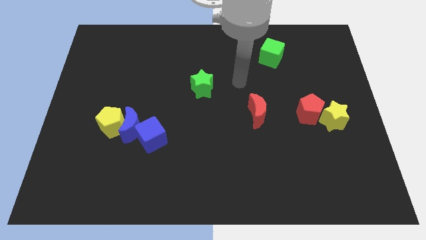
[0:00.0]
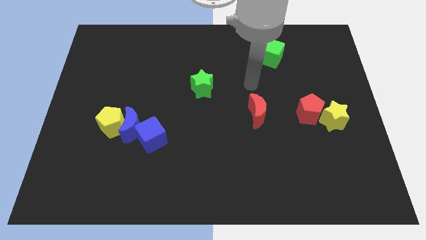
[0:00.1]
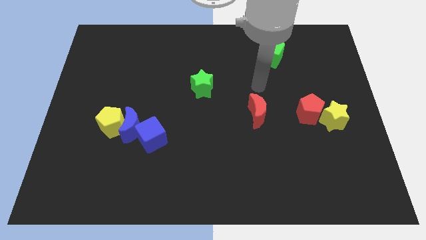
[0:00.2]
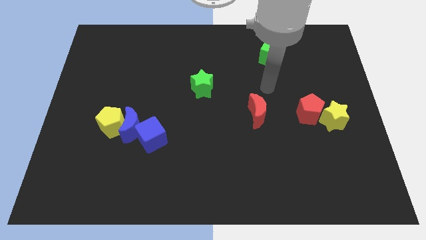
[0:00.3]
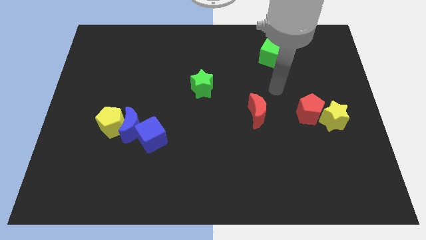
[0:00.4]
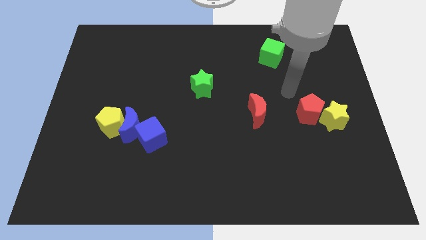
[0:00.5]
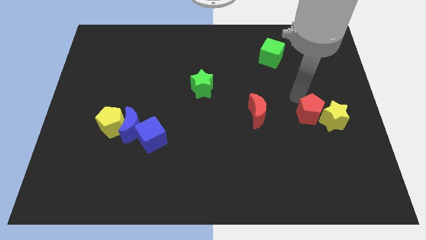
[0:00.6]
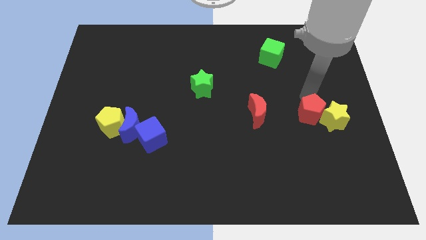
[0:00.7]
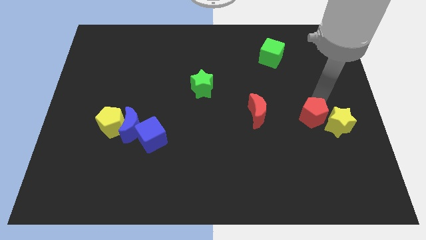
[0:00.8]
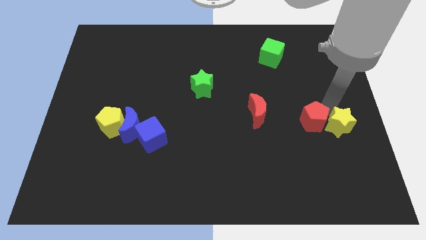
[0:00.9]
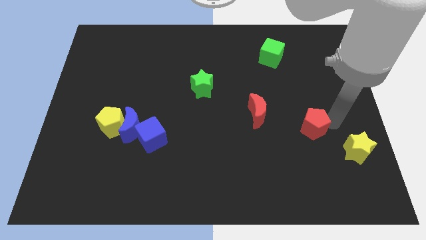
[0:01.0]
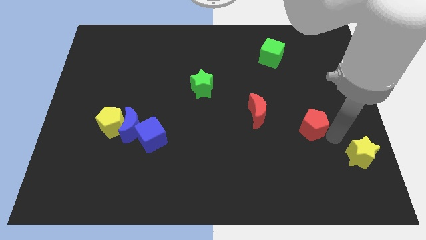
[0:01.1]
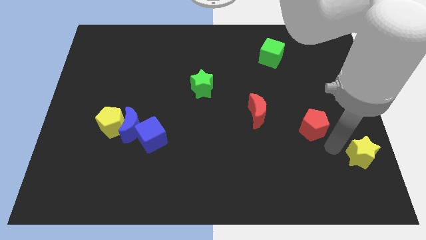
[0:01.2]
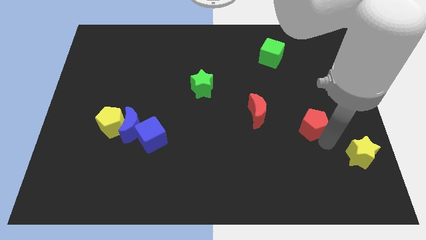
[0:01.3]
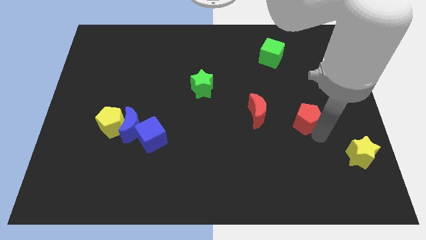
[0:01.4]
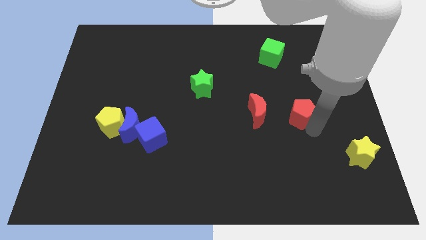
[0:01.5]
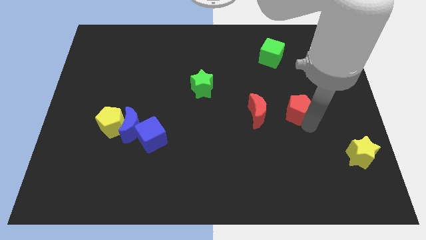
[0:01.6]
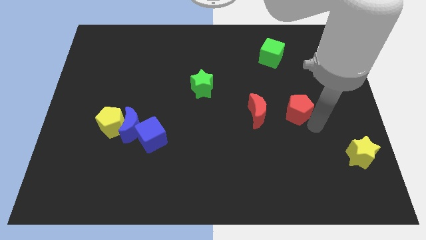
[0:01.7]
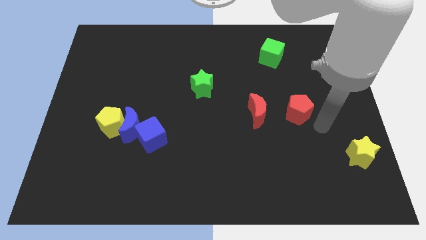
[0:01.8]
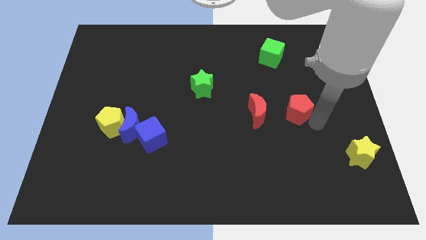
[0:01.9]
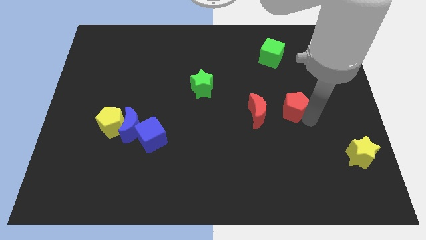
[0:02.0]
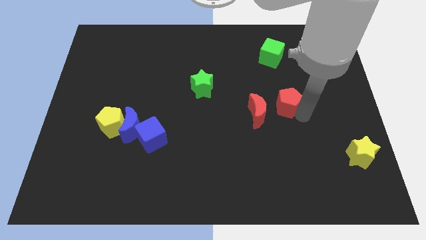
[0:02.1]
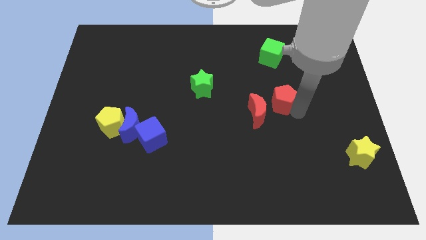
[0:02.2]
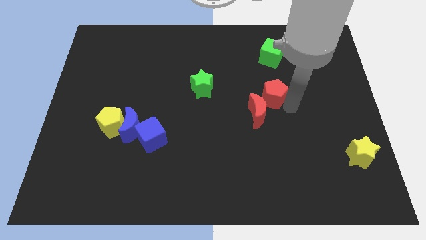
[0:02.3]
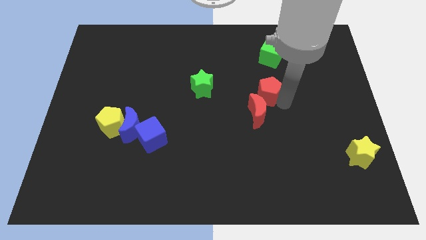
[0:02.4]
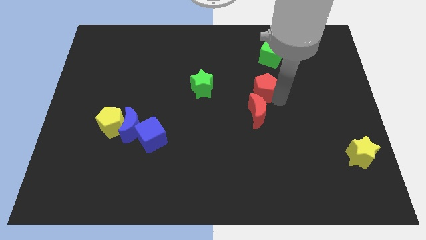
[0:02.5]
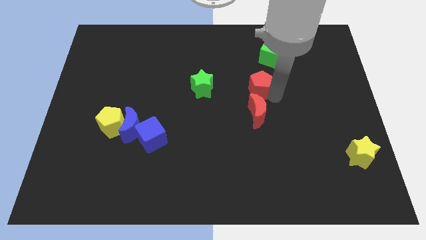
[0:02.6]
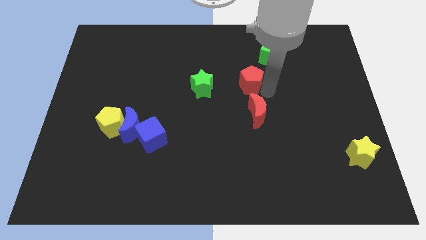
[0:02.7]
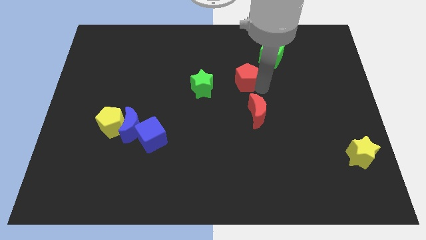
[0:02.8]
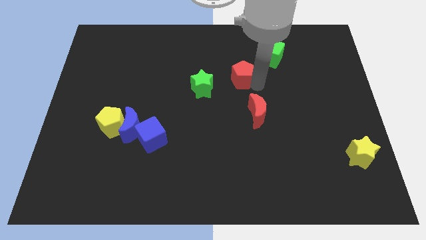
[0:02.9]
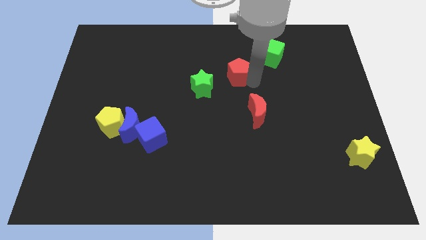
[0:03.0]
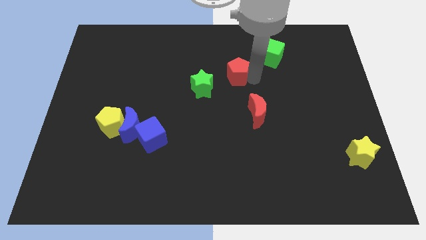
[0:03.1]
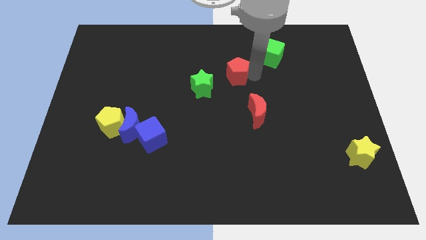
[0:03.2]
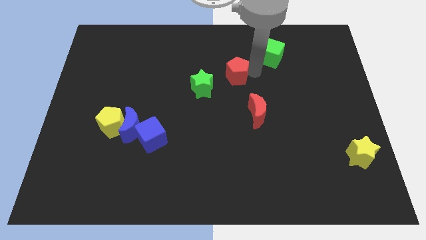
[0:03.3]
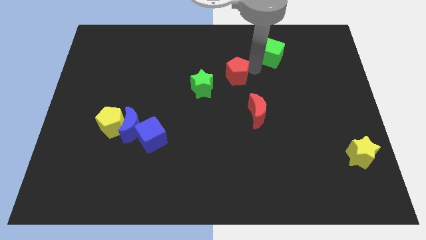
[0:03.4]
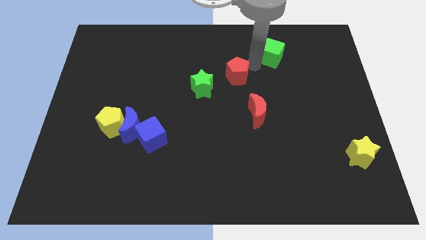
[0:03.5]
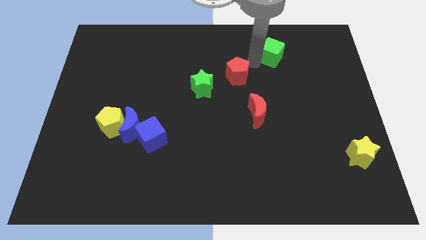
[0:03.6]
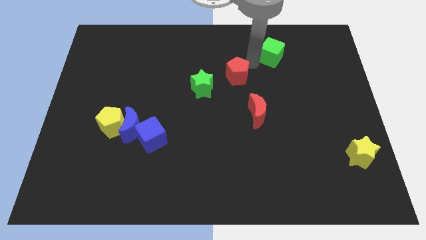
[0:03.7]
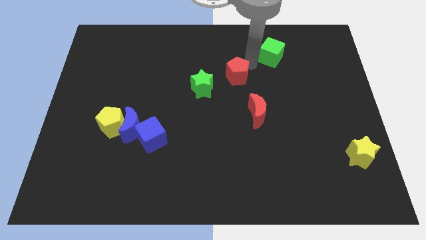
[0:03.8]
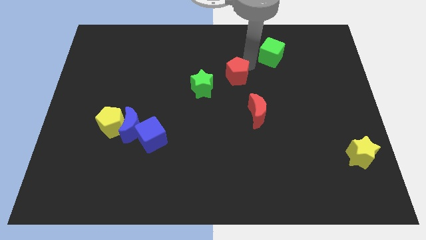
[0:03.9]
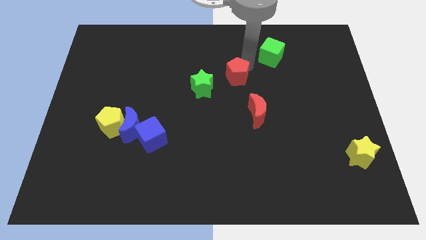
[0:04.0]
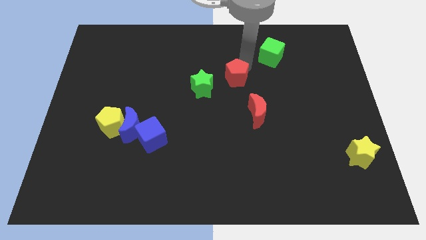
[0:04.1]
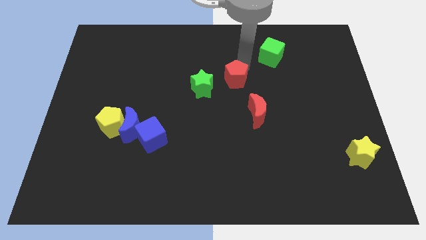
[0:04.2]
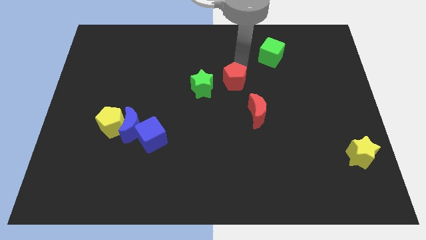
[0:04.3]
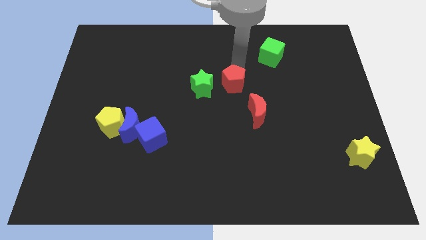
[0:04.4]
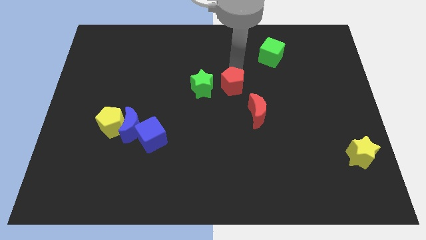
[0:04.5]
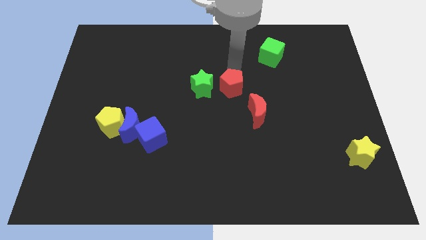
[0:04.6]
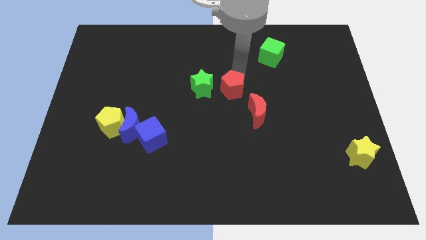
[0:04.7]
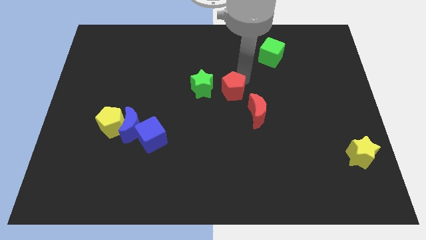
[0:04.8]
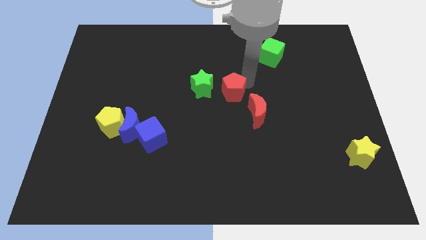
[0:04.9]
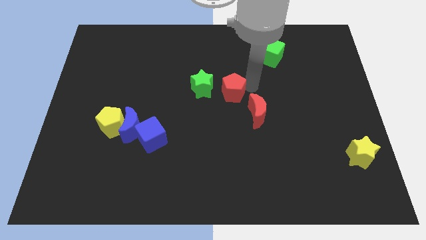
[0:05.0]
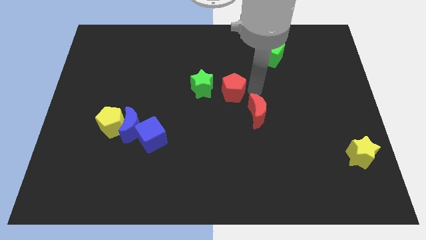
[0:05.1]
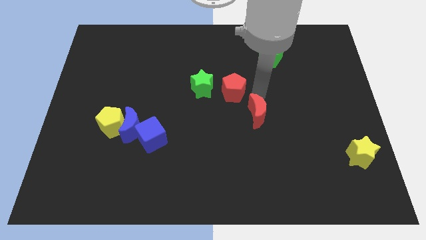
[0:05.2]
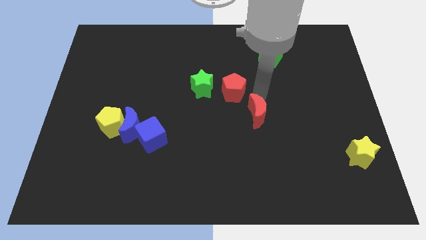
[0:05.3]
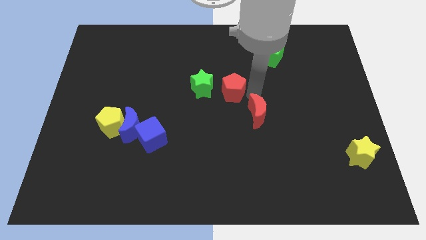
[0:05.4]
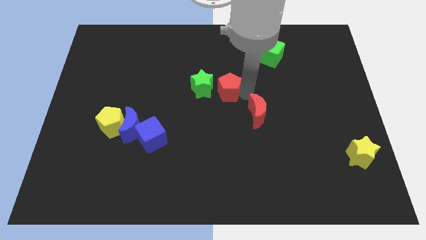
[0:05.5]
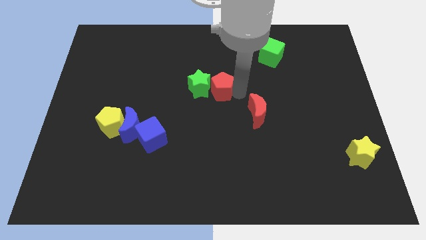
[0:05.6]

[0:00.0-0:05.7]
move the red pentagon next to the green star

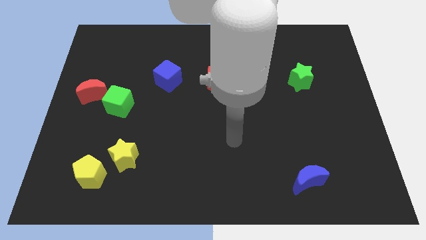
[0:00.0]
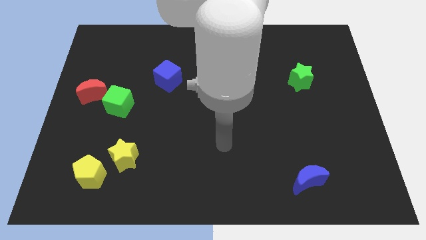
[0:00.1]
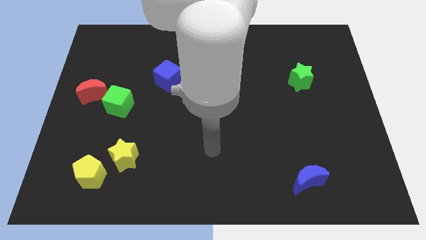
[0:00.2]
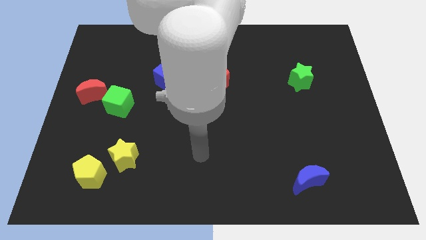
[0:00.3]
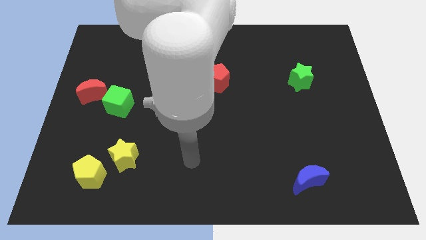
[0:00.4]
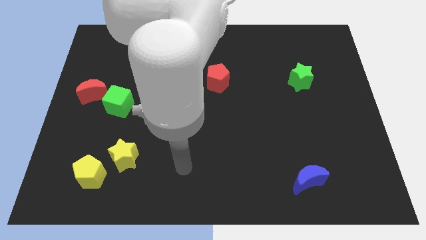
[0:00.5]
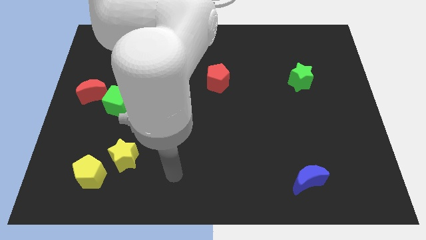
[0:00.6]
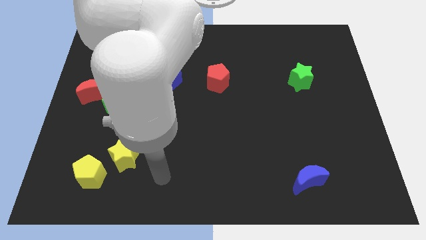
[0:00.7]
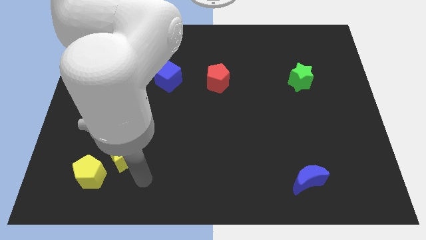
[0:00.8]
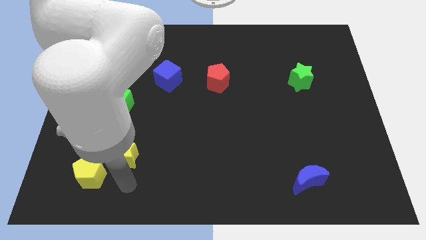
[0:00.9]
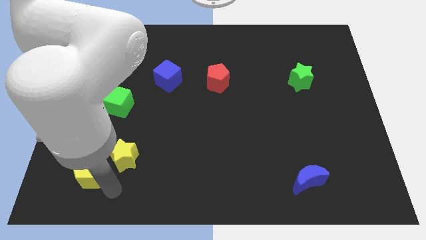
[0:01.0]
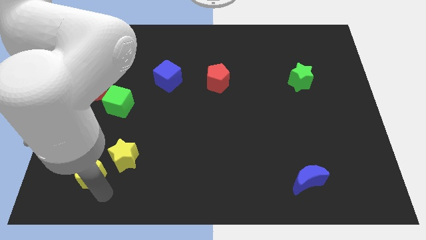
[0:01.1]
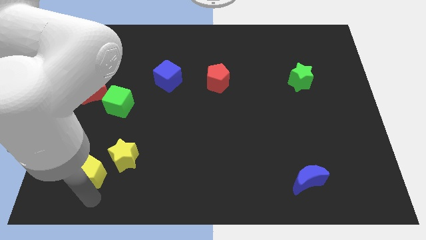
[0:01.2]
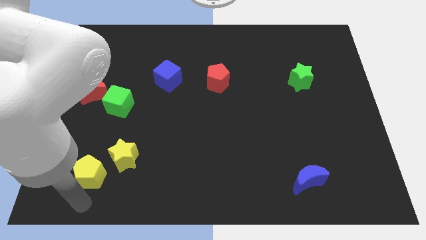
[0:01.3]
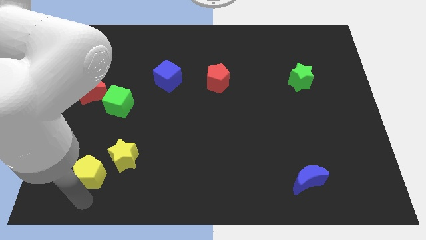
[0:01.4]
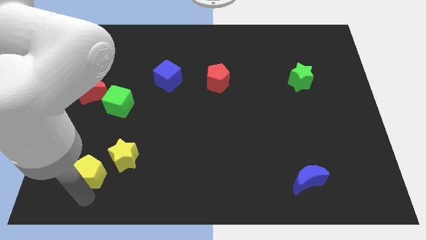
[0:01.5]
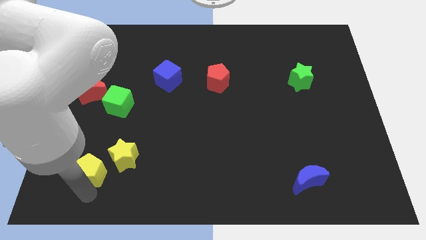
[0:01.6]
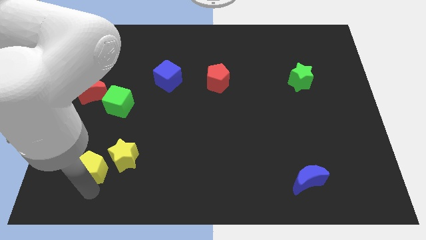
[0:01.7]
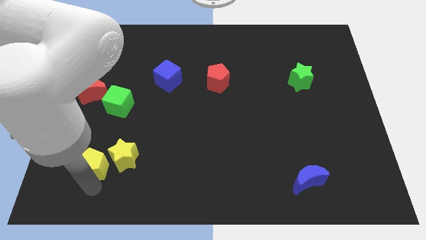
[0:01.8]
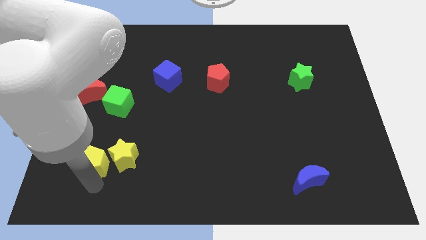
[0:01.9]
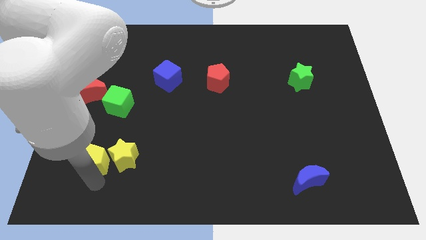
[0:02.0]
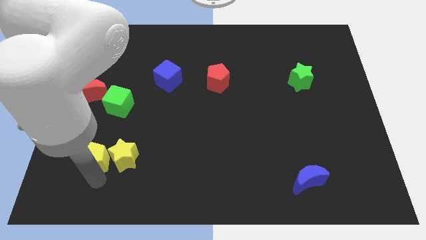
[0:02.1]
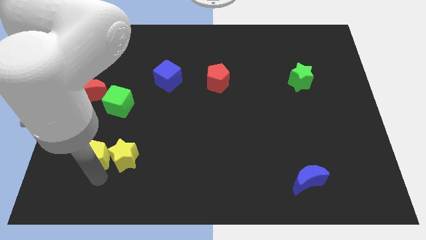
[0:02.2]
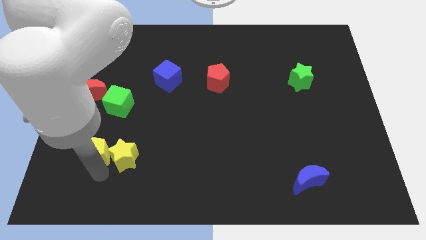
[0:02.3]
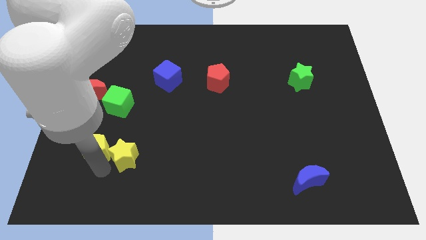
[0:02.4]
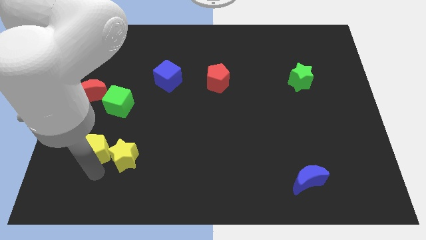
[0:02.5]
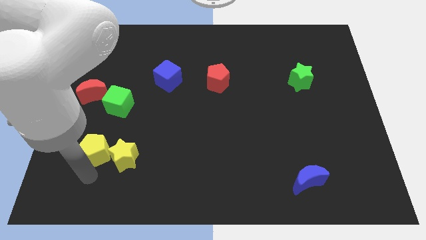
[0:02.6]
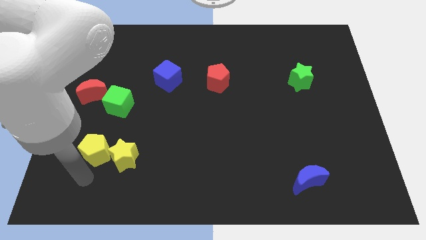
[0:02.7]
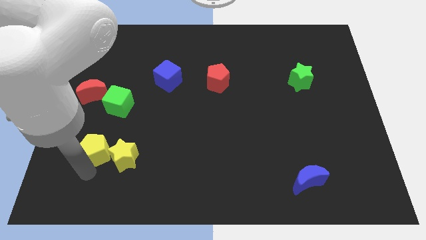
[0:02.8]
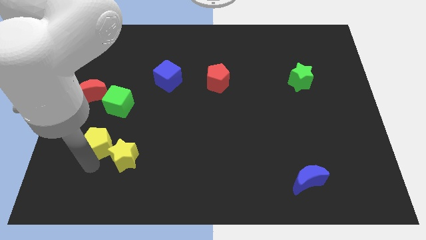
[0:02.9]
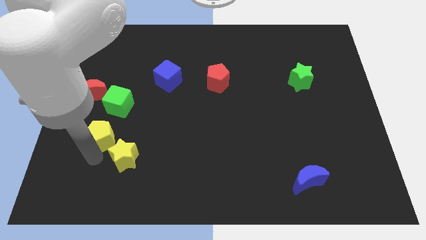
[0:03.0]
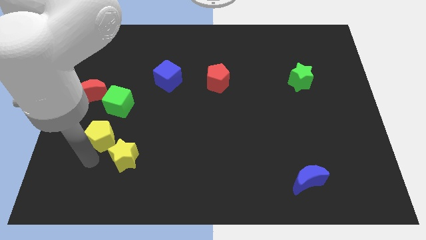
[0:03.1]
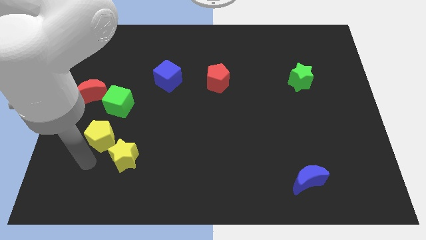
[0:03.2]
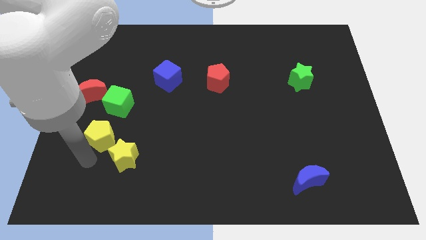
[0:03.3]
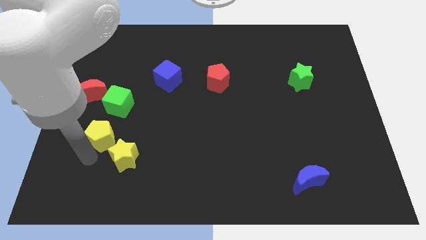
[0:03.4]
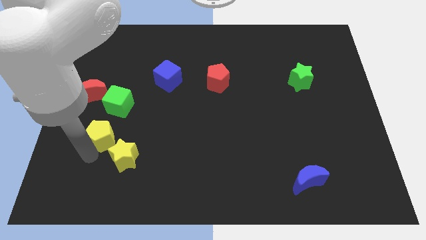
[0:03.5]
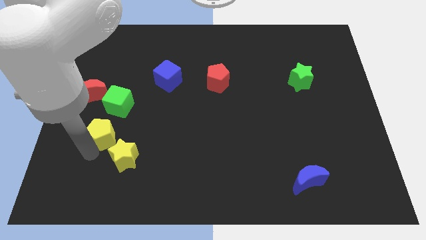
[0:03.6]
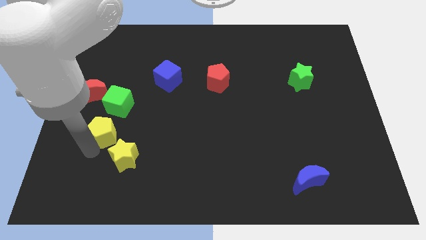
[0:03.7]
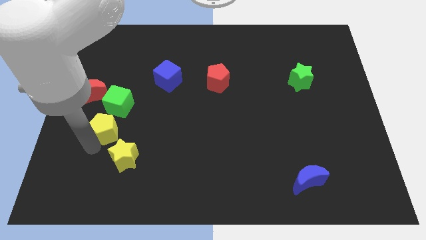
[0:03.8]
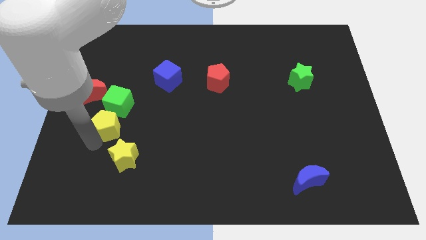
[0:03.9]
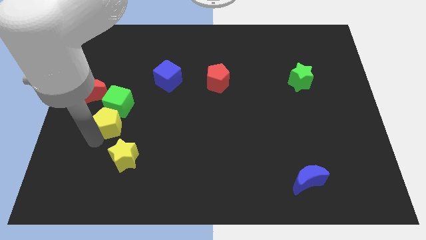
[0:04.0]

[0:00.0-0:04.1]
slide the yellow pentagon towards the green cube
